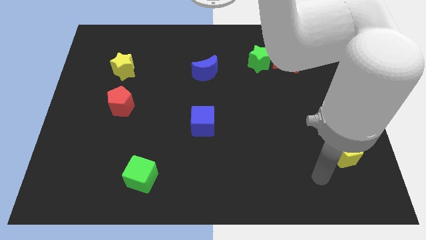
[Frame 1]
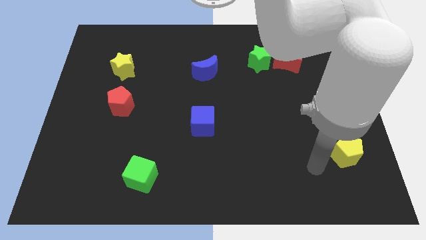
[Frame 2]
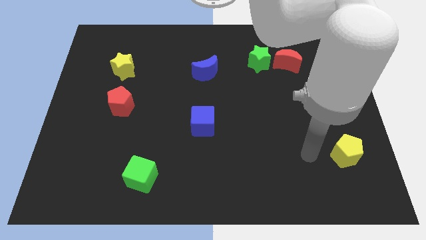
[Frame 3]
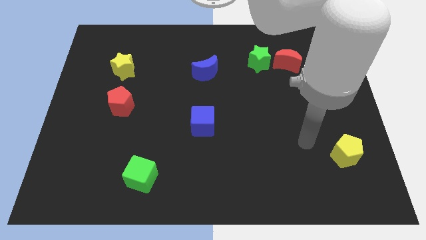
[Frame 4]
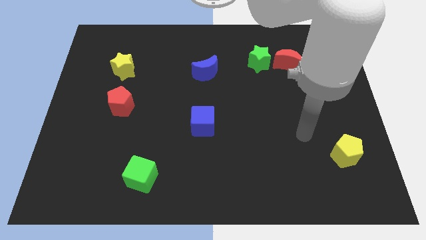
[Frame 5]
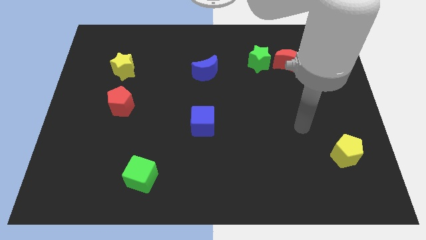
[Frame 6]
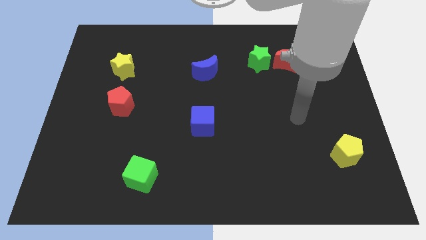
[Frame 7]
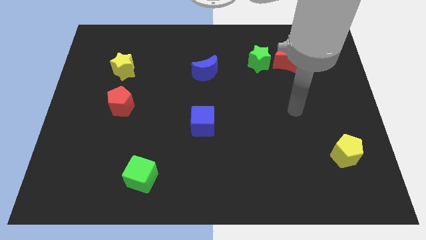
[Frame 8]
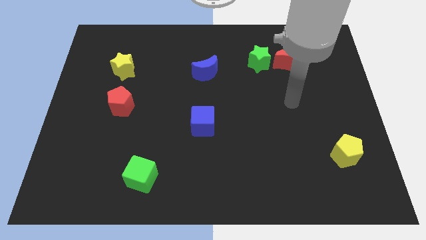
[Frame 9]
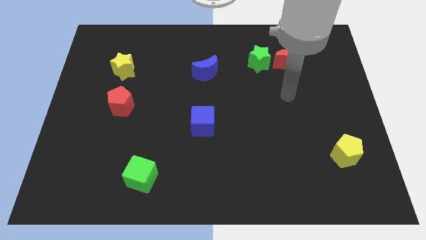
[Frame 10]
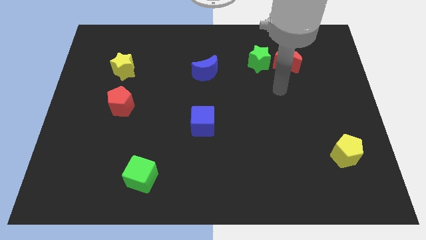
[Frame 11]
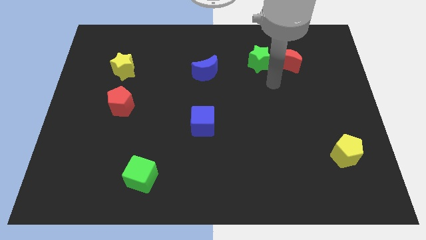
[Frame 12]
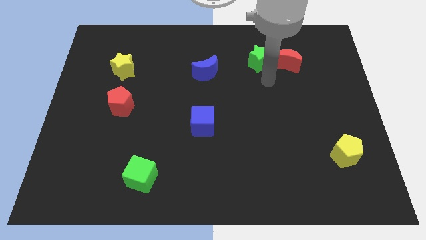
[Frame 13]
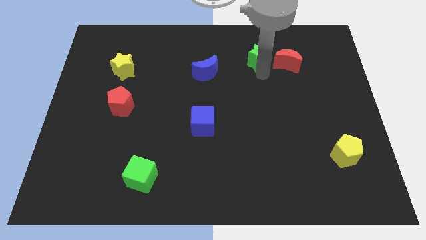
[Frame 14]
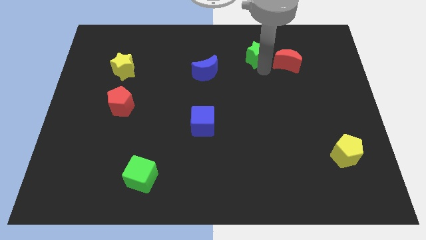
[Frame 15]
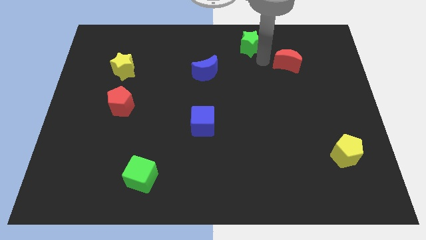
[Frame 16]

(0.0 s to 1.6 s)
move the red moon away from the green star

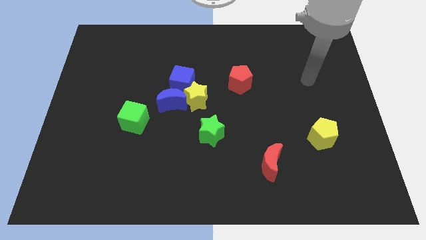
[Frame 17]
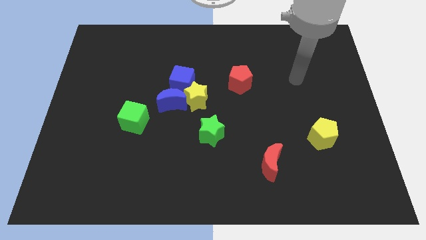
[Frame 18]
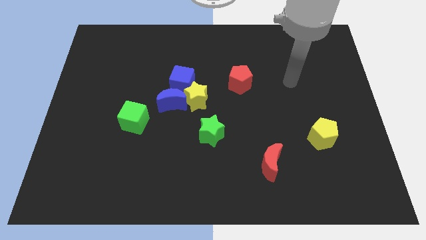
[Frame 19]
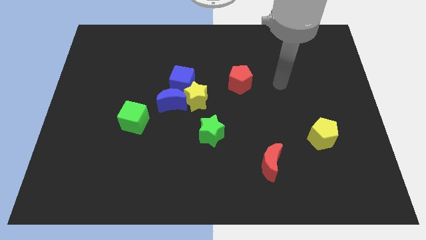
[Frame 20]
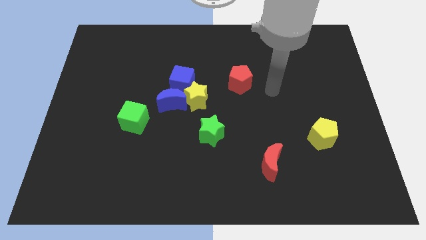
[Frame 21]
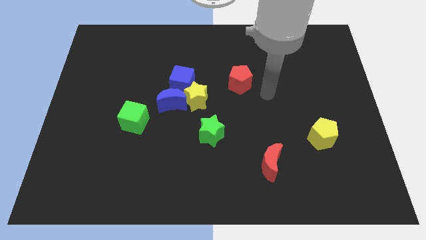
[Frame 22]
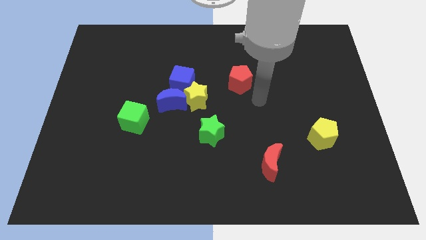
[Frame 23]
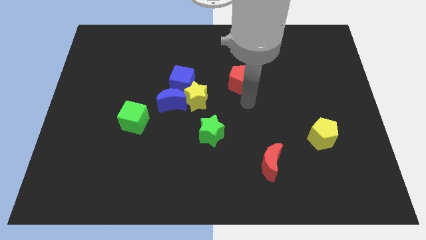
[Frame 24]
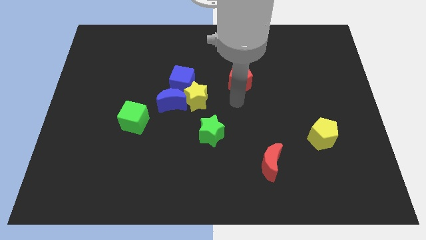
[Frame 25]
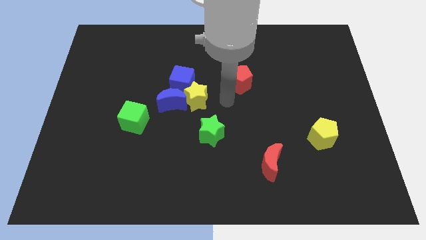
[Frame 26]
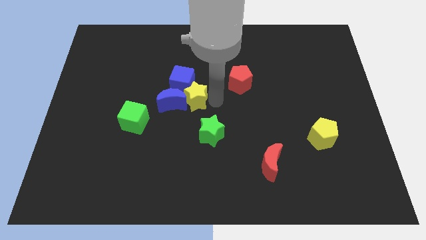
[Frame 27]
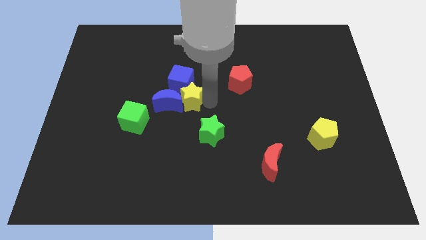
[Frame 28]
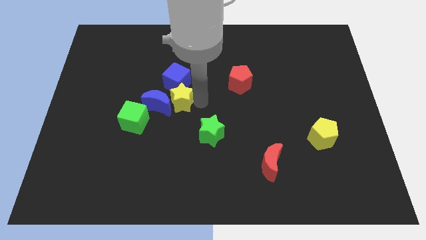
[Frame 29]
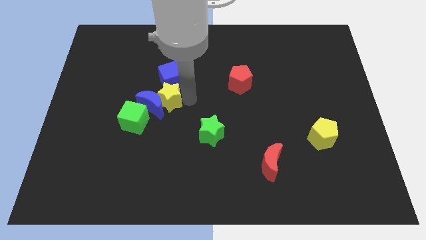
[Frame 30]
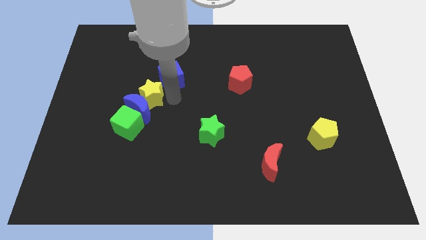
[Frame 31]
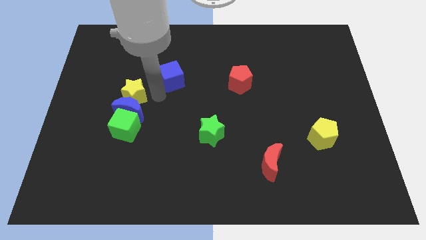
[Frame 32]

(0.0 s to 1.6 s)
pull the blue cube apart from the yellow star and blue moon

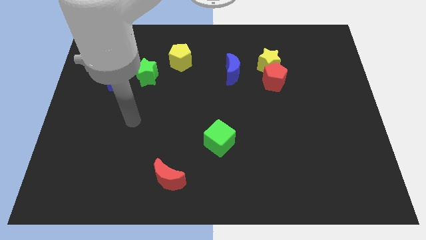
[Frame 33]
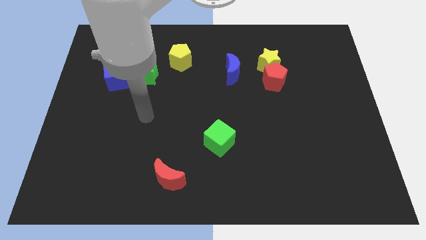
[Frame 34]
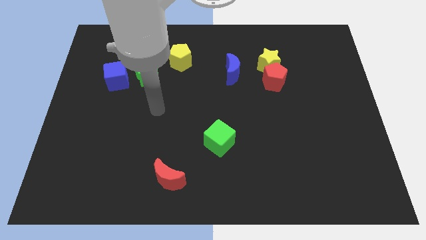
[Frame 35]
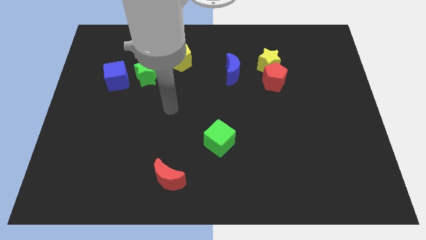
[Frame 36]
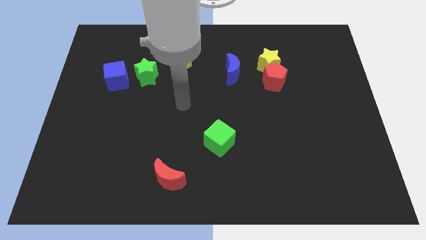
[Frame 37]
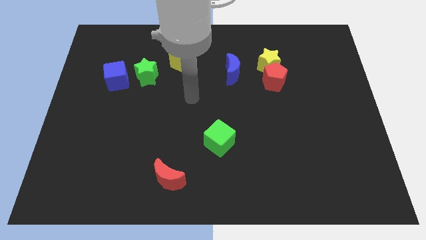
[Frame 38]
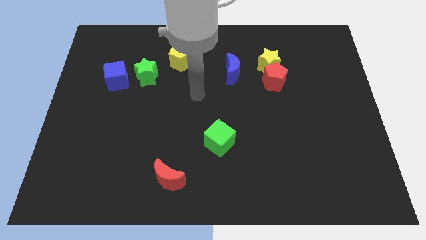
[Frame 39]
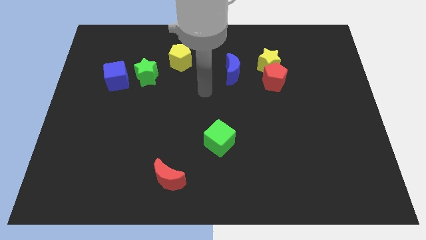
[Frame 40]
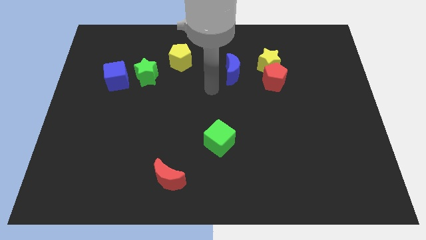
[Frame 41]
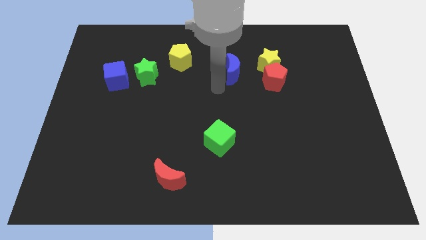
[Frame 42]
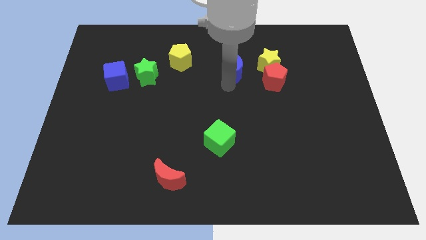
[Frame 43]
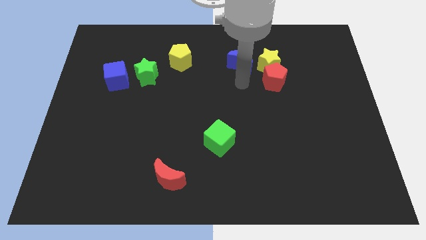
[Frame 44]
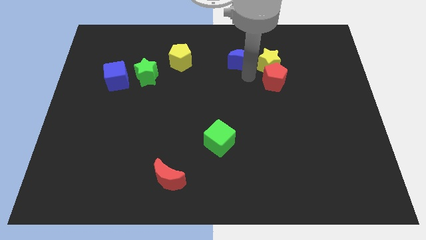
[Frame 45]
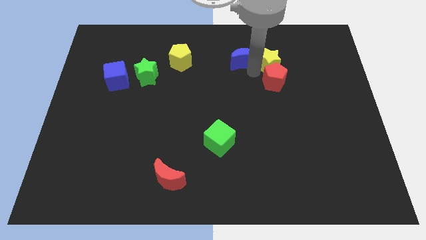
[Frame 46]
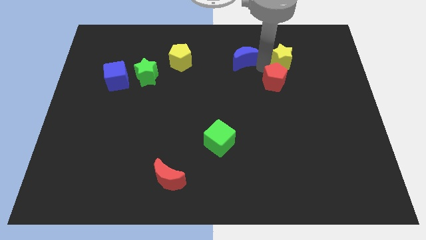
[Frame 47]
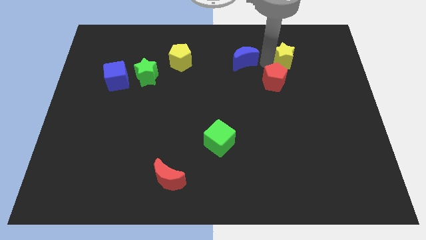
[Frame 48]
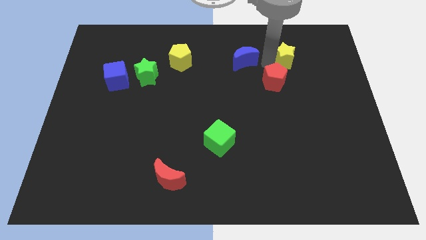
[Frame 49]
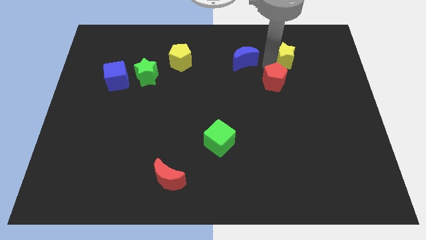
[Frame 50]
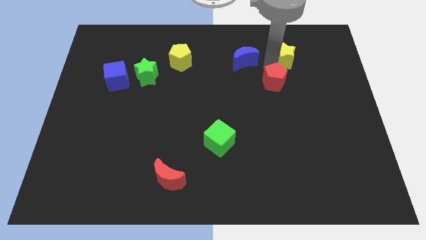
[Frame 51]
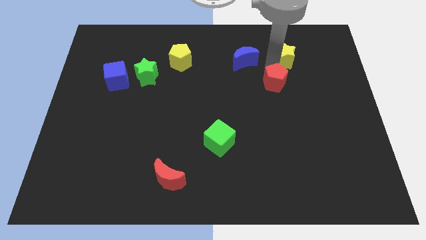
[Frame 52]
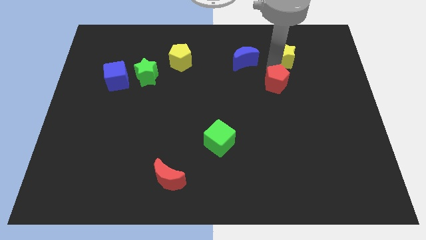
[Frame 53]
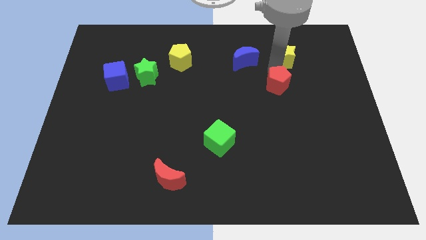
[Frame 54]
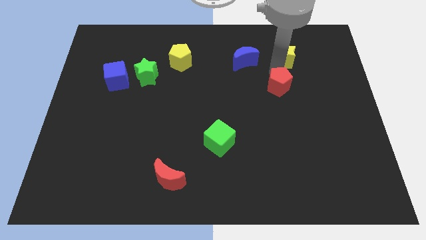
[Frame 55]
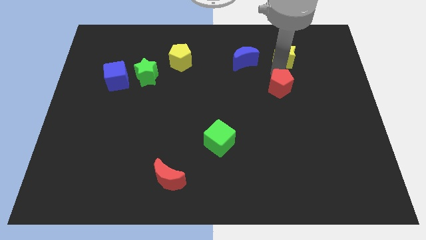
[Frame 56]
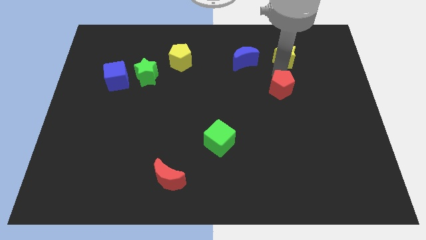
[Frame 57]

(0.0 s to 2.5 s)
separate the red pentagon from the yellow star

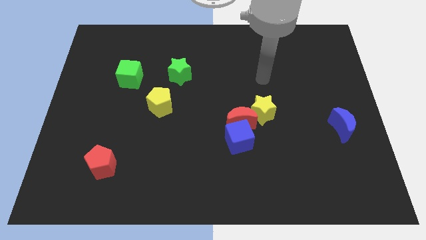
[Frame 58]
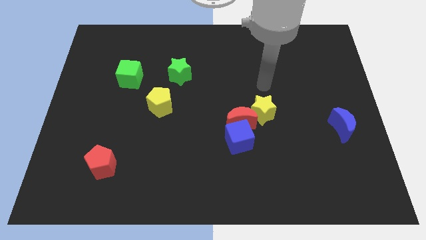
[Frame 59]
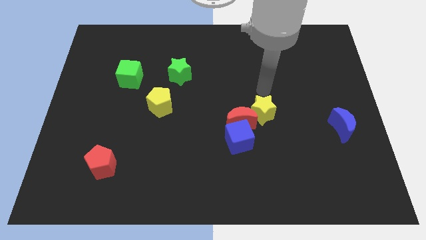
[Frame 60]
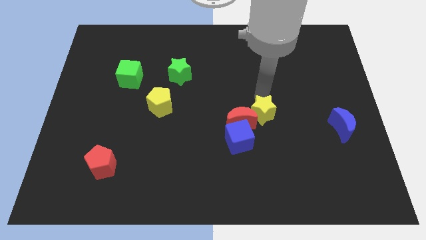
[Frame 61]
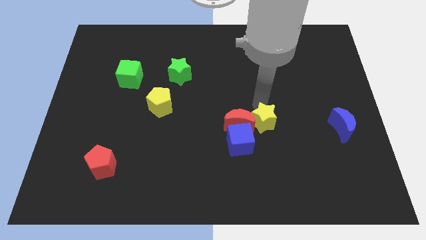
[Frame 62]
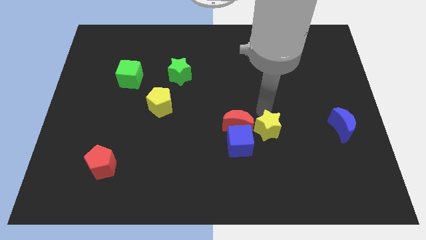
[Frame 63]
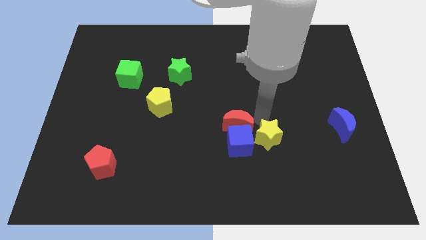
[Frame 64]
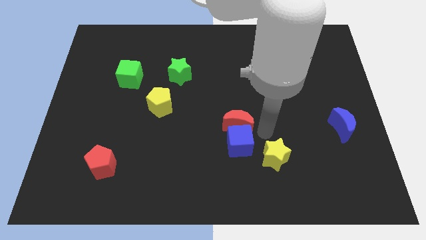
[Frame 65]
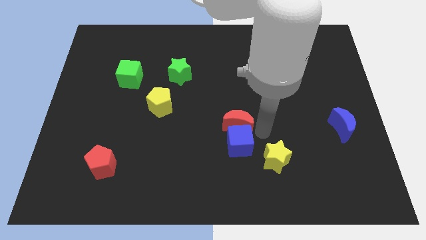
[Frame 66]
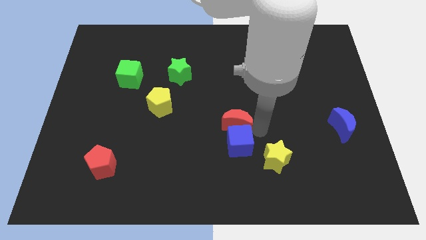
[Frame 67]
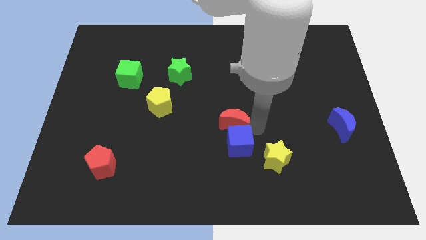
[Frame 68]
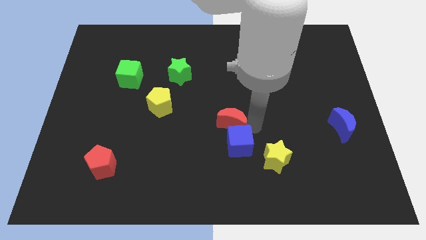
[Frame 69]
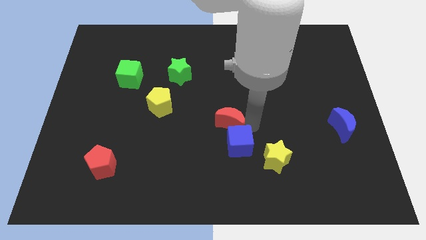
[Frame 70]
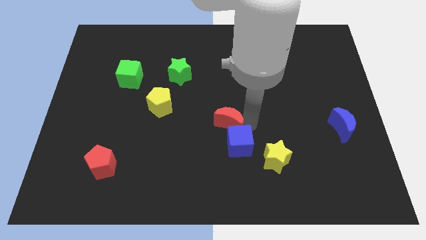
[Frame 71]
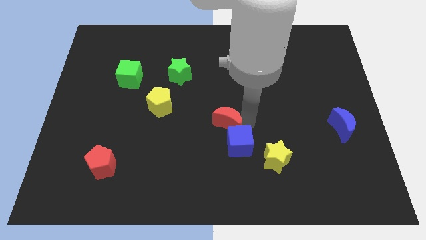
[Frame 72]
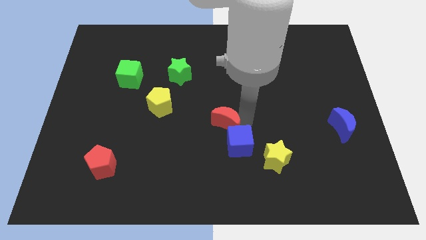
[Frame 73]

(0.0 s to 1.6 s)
pull the red moon apart from the blue cube and yellow star

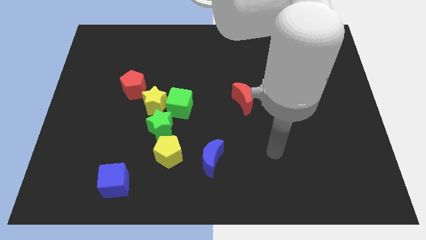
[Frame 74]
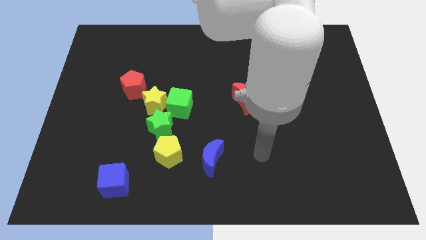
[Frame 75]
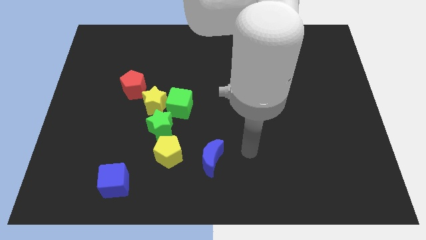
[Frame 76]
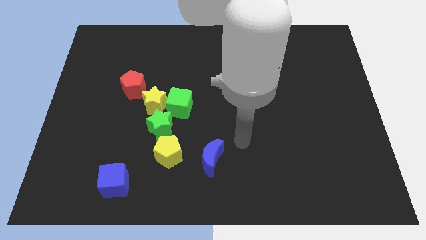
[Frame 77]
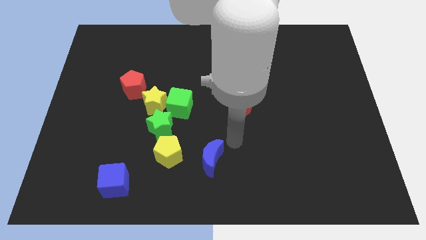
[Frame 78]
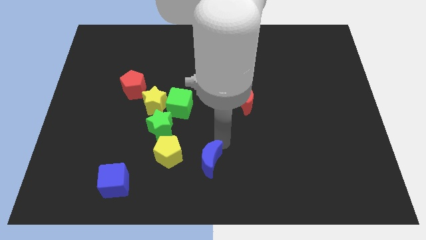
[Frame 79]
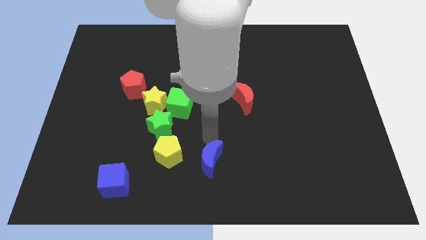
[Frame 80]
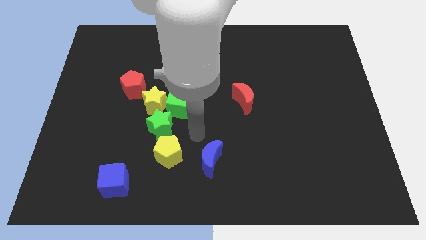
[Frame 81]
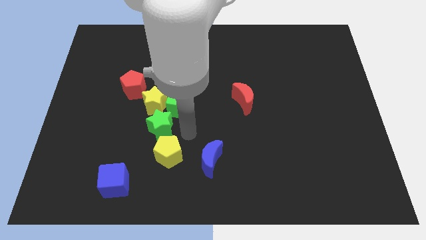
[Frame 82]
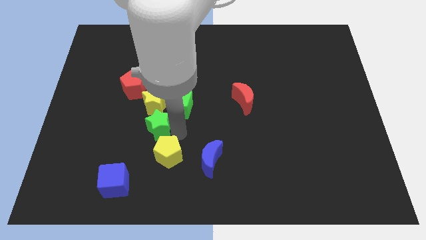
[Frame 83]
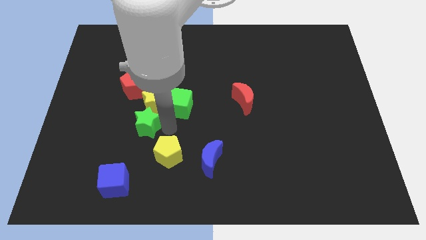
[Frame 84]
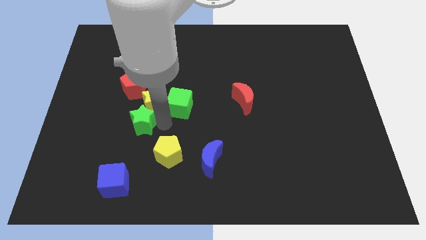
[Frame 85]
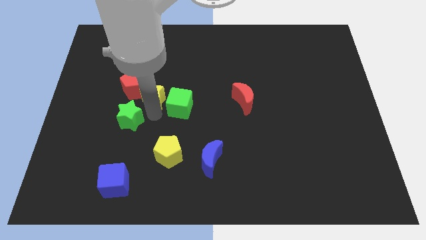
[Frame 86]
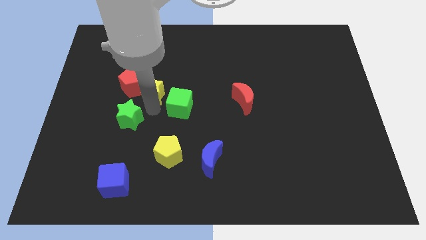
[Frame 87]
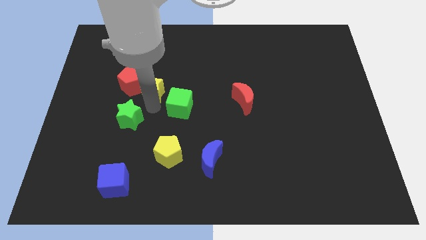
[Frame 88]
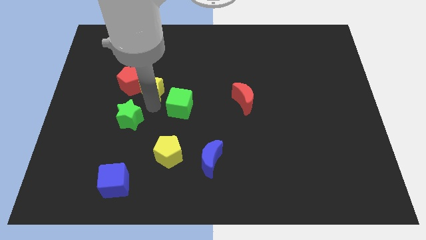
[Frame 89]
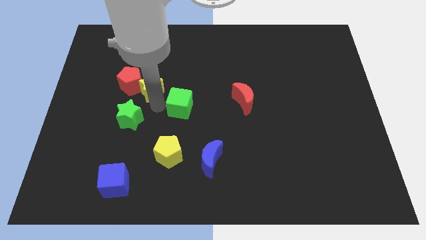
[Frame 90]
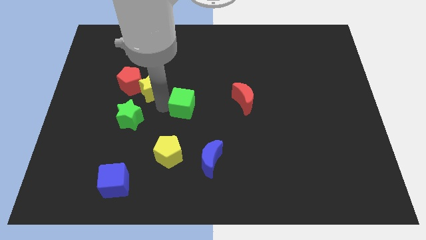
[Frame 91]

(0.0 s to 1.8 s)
pull the green cube apart from the yellow star and green star

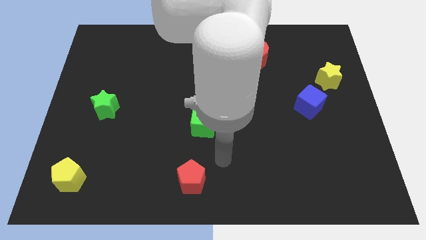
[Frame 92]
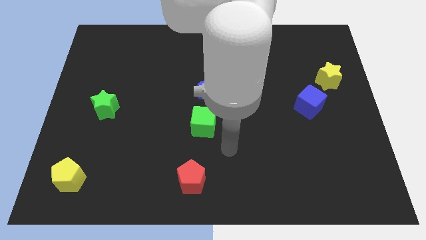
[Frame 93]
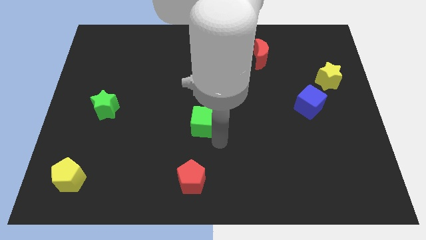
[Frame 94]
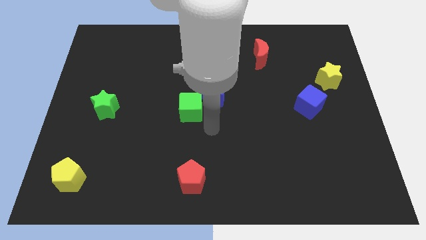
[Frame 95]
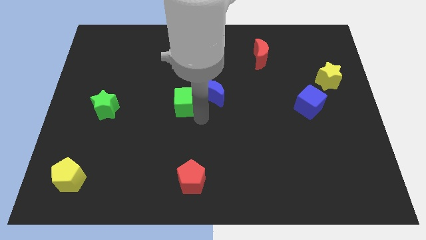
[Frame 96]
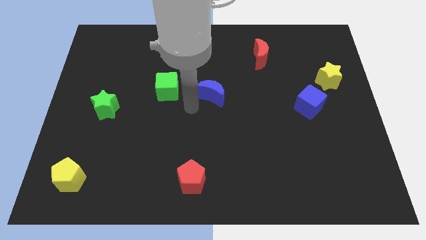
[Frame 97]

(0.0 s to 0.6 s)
separate the blue moon from the green cube
